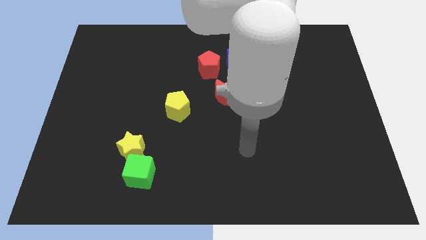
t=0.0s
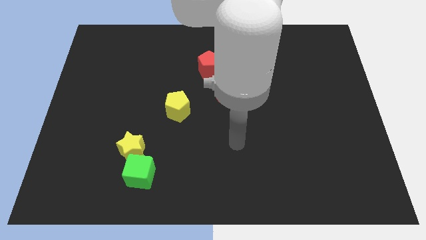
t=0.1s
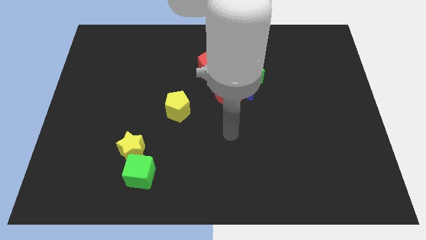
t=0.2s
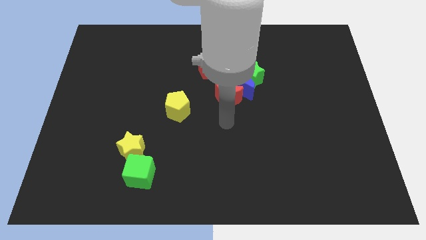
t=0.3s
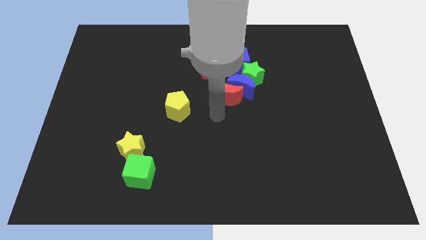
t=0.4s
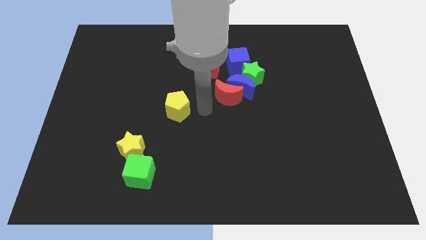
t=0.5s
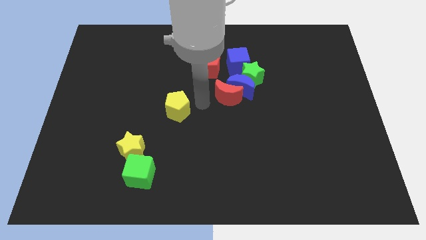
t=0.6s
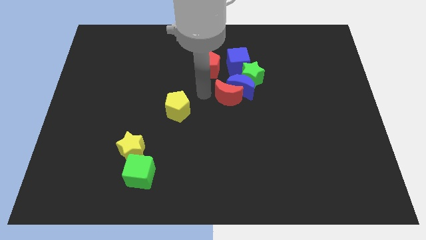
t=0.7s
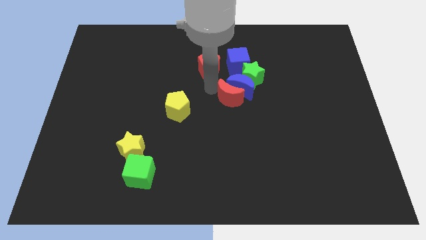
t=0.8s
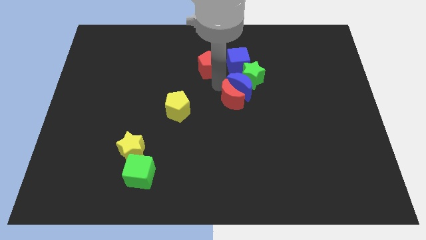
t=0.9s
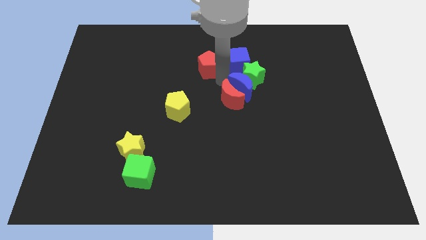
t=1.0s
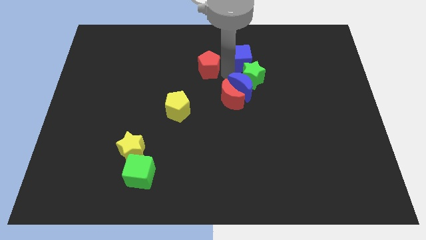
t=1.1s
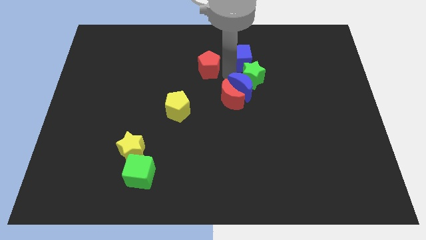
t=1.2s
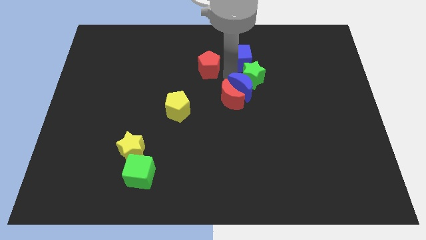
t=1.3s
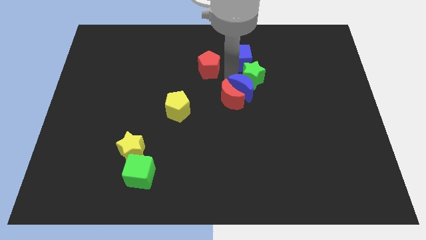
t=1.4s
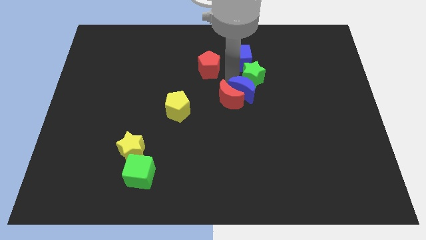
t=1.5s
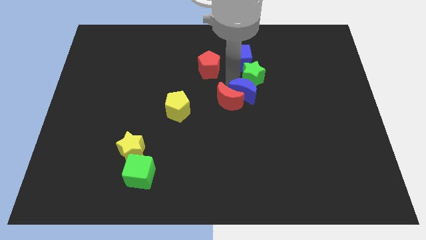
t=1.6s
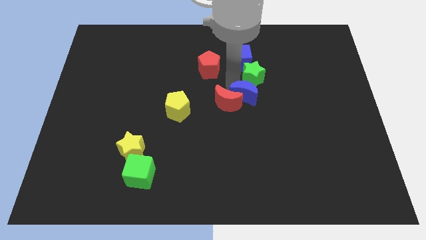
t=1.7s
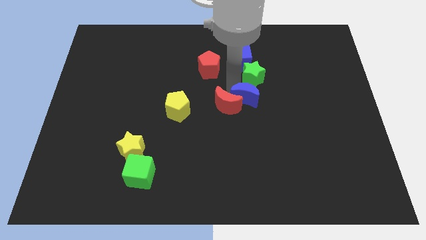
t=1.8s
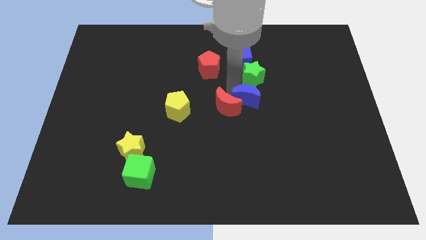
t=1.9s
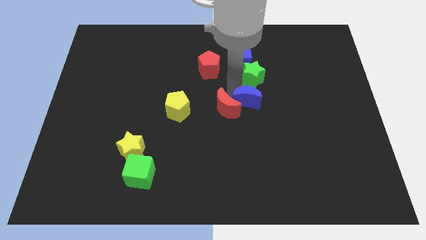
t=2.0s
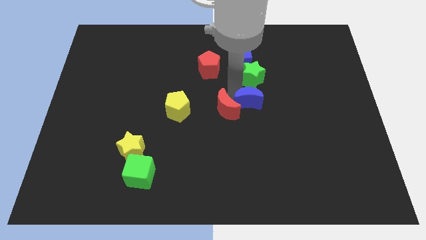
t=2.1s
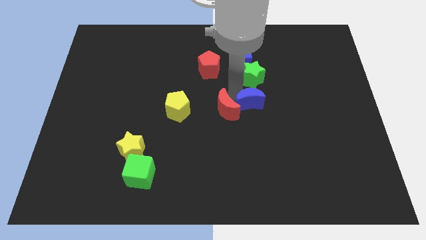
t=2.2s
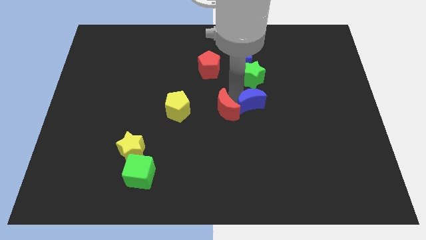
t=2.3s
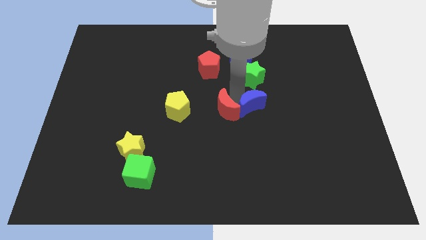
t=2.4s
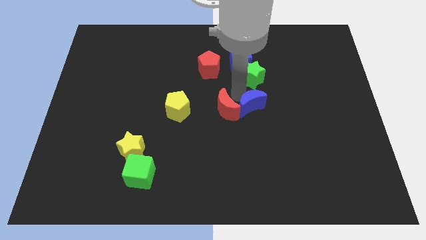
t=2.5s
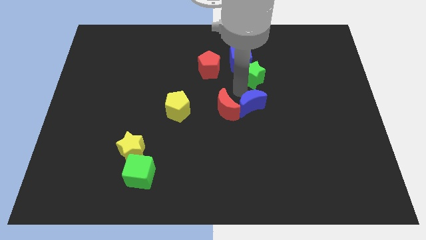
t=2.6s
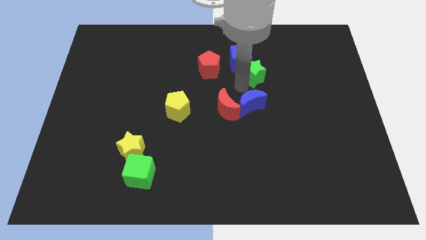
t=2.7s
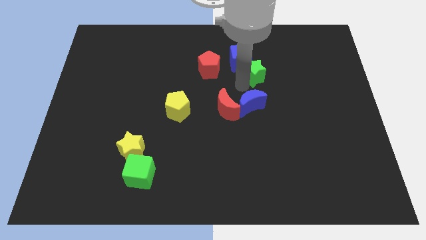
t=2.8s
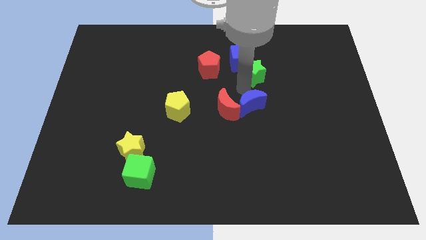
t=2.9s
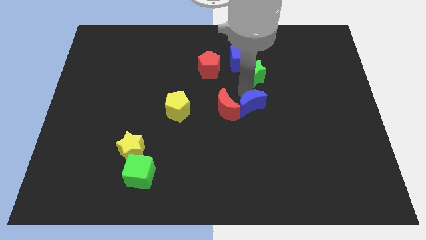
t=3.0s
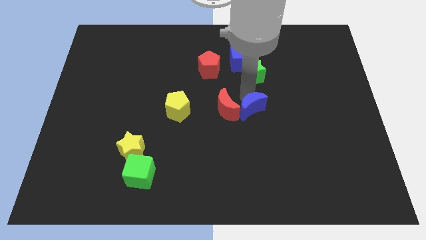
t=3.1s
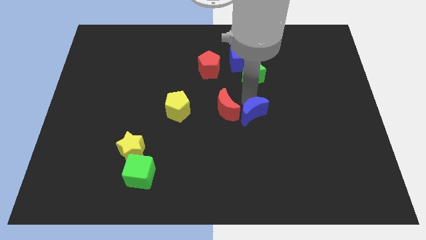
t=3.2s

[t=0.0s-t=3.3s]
pull the blue moon apart from the red moon, green star, and blue cube

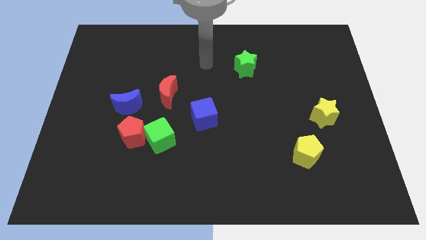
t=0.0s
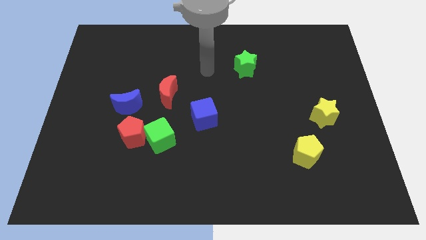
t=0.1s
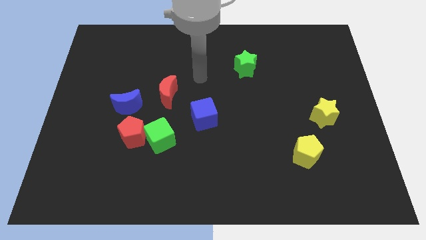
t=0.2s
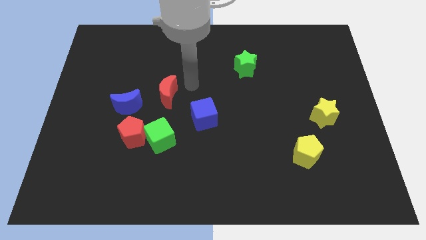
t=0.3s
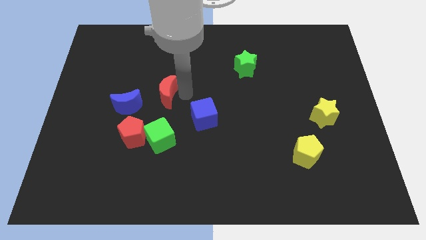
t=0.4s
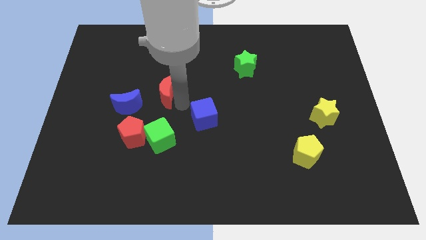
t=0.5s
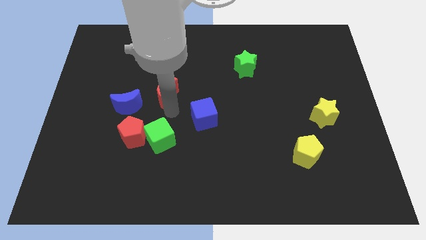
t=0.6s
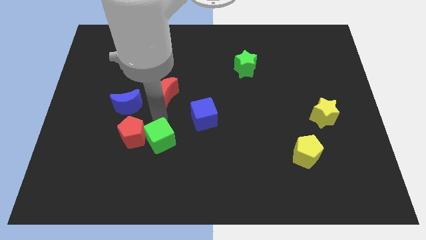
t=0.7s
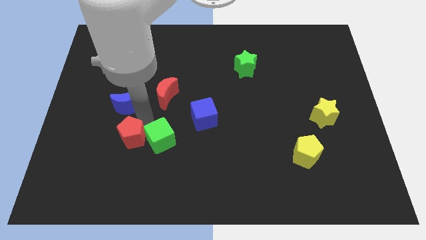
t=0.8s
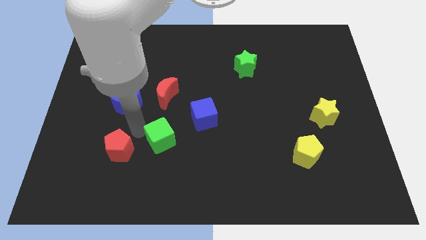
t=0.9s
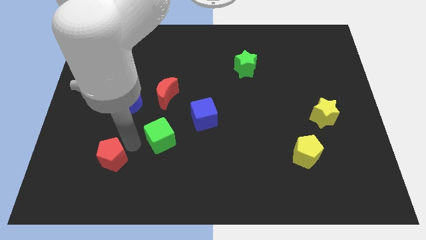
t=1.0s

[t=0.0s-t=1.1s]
pull the green cube apart from the red pentagon

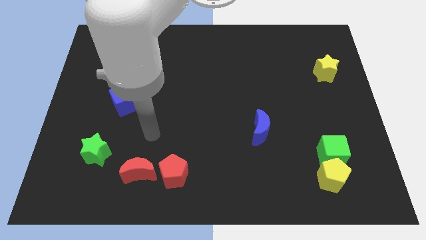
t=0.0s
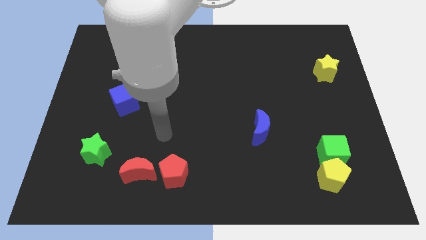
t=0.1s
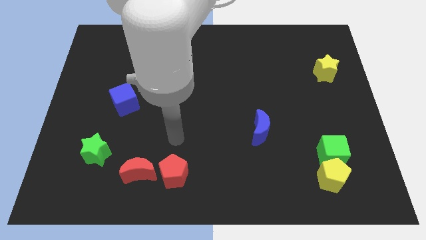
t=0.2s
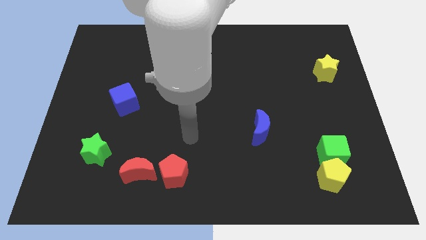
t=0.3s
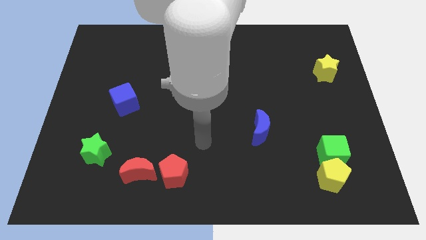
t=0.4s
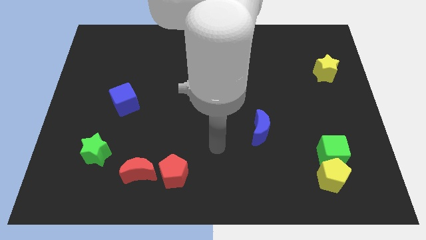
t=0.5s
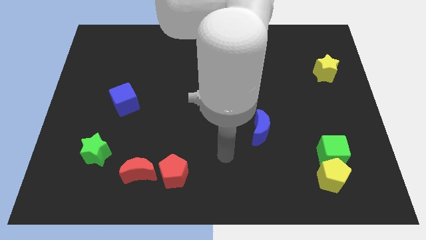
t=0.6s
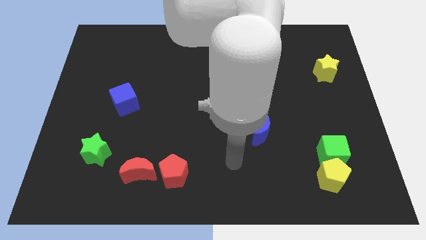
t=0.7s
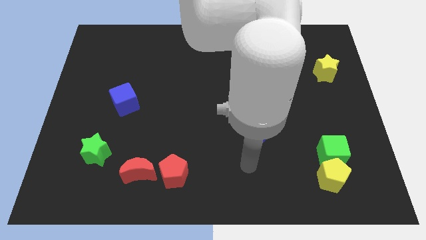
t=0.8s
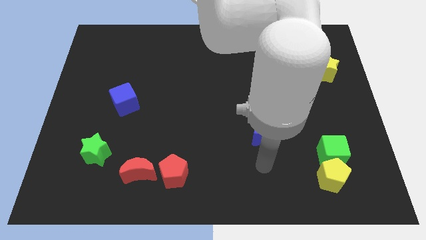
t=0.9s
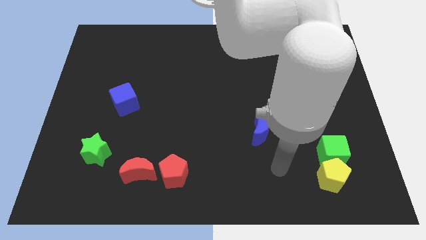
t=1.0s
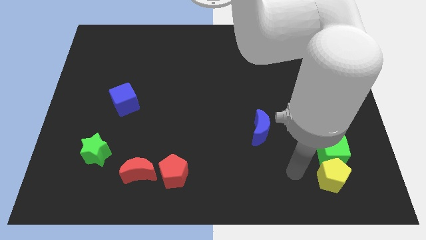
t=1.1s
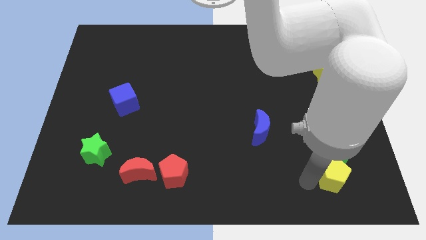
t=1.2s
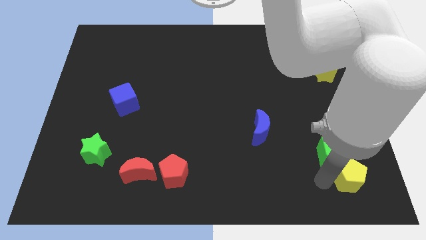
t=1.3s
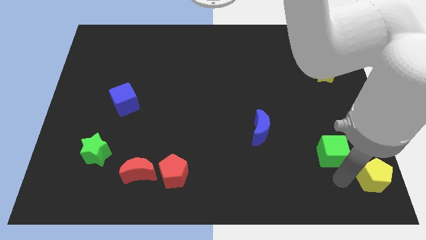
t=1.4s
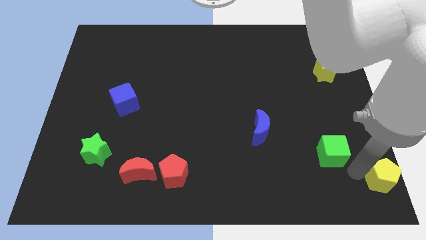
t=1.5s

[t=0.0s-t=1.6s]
separate the green cube from the yellow pentagon

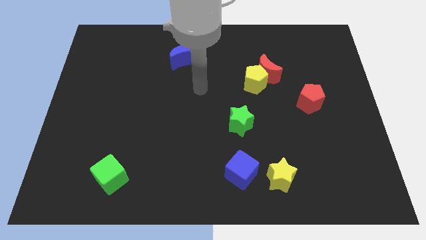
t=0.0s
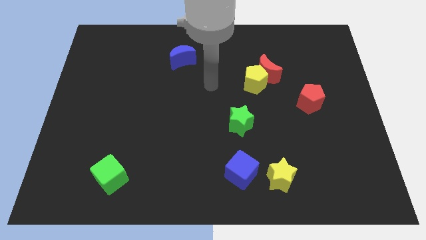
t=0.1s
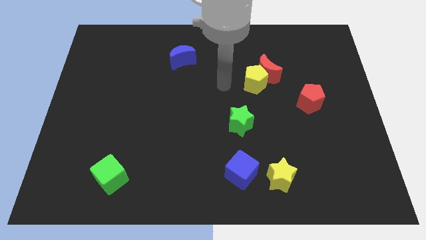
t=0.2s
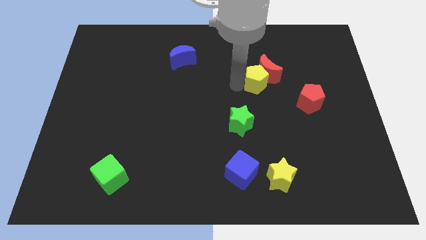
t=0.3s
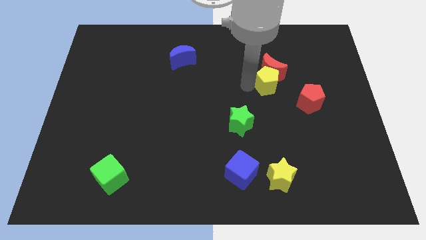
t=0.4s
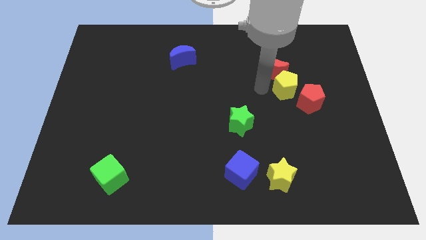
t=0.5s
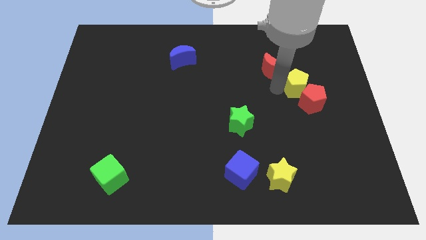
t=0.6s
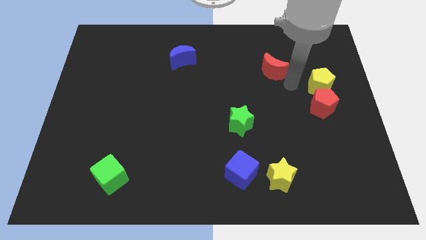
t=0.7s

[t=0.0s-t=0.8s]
separate the red moon from the yellow pentagon

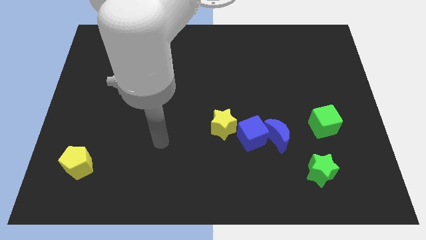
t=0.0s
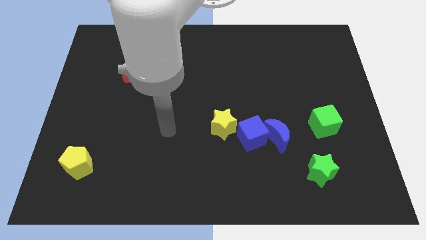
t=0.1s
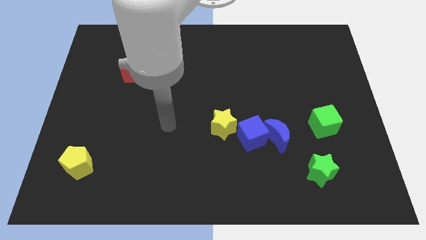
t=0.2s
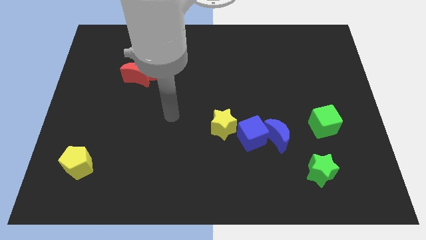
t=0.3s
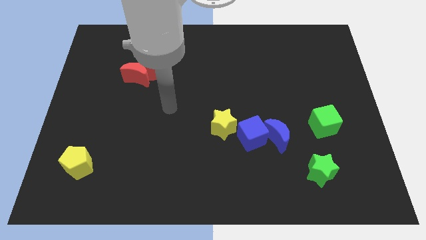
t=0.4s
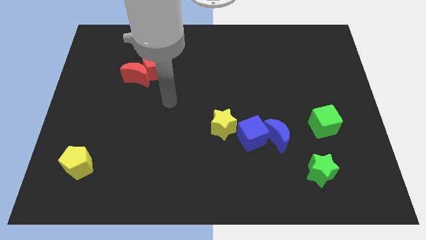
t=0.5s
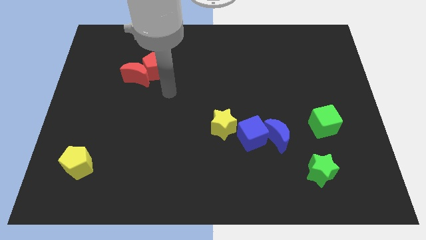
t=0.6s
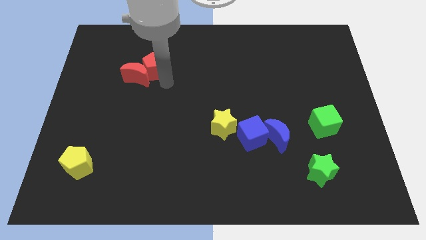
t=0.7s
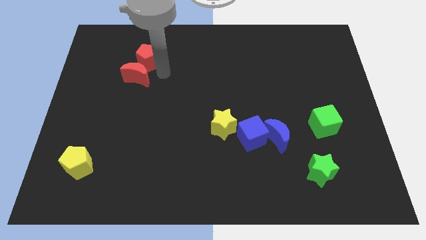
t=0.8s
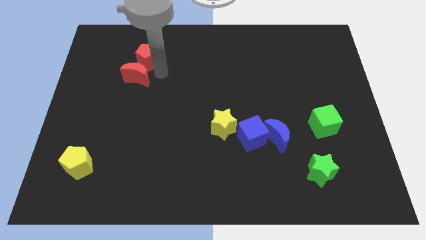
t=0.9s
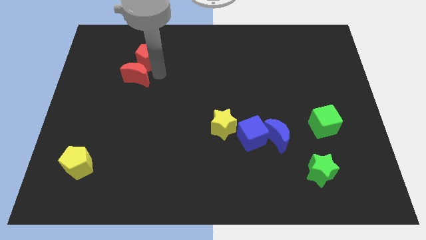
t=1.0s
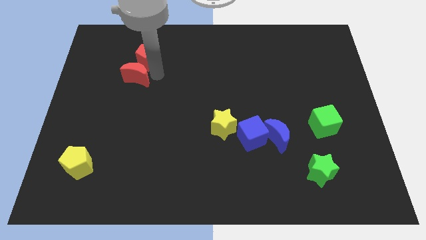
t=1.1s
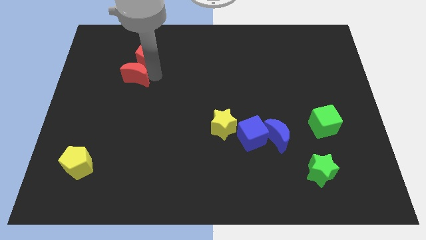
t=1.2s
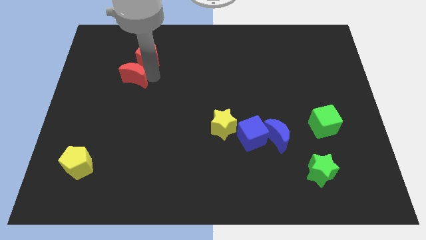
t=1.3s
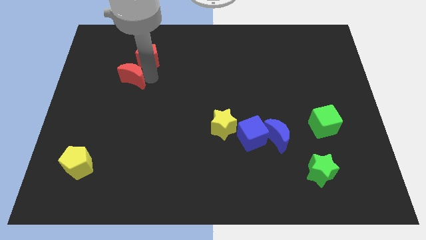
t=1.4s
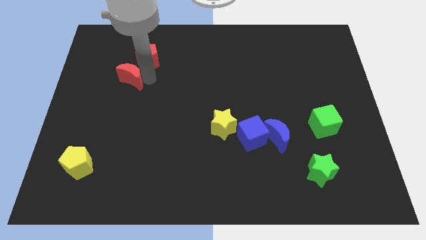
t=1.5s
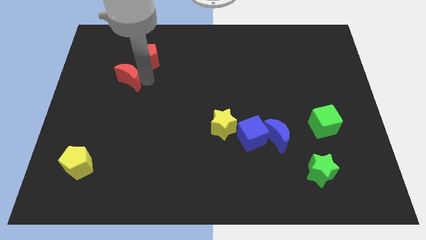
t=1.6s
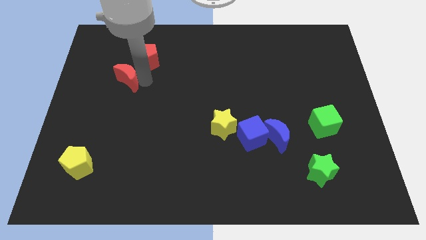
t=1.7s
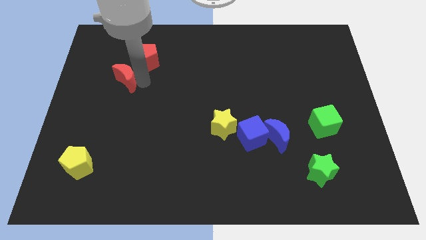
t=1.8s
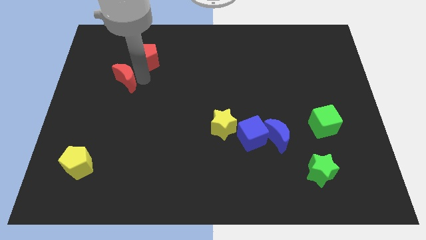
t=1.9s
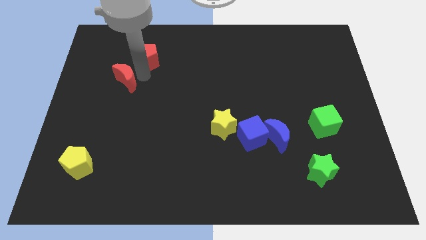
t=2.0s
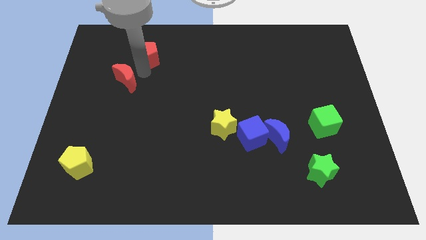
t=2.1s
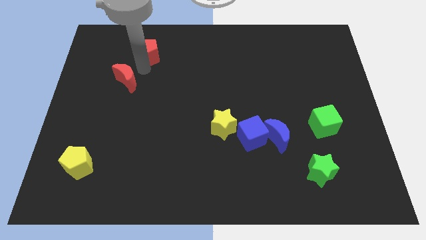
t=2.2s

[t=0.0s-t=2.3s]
move the red moon away from the red pentagon

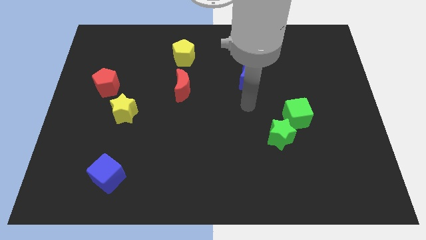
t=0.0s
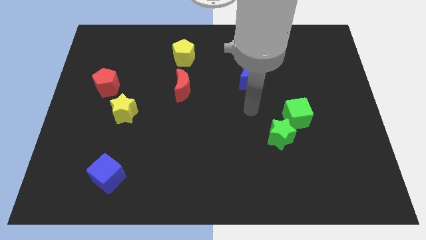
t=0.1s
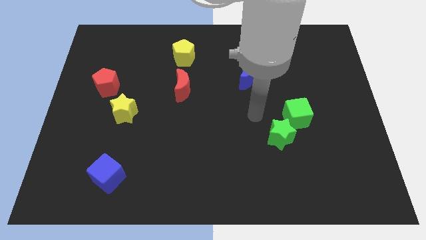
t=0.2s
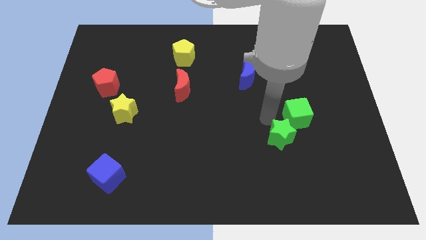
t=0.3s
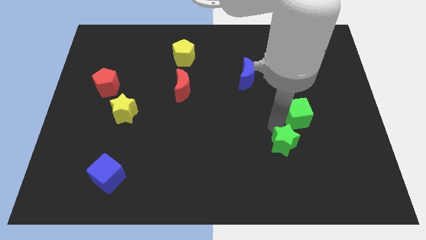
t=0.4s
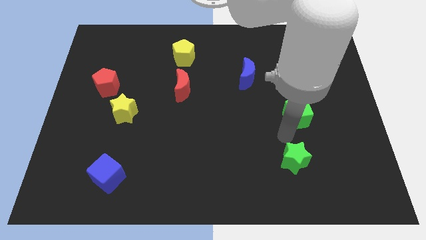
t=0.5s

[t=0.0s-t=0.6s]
pull the green cube apart from the green star
